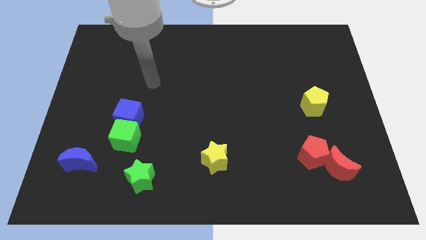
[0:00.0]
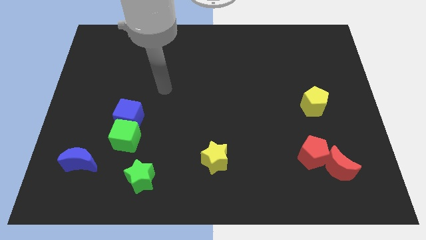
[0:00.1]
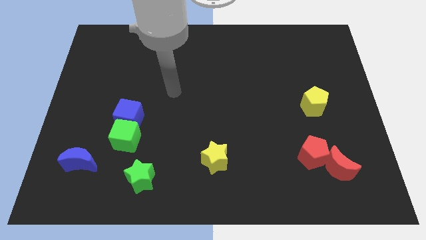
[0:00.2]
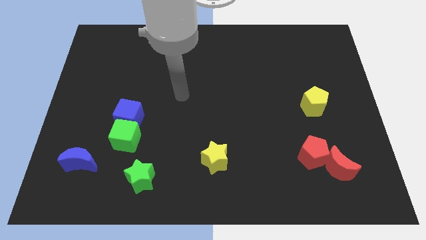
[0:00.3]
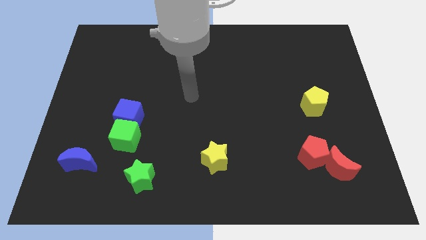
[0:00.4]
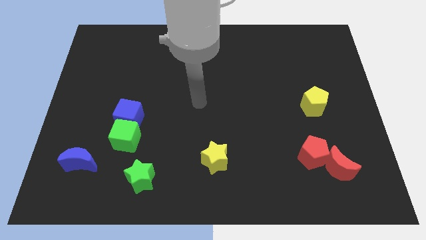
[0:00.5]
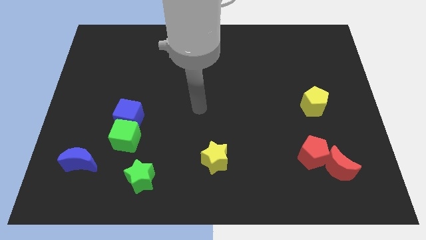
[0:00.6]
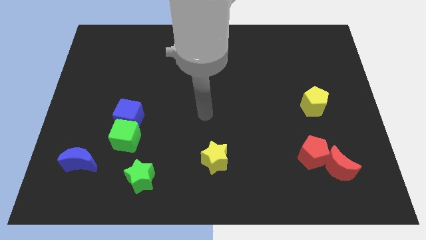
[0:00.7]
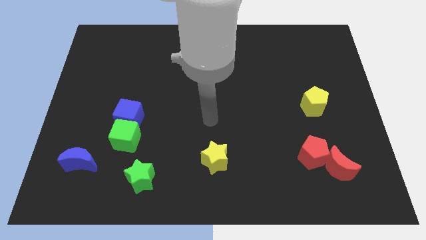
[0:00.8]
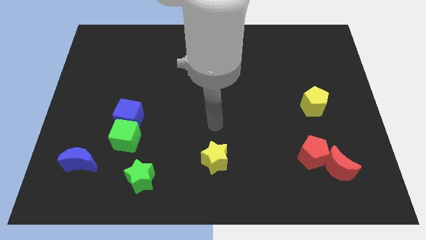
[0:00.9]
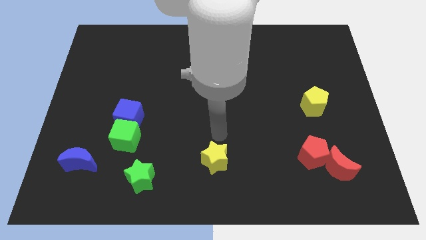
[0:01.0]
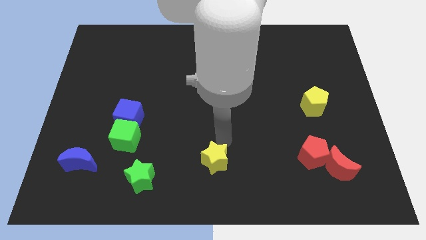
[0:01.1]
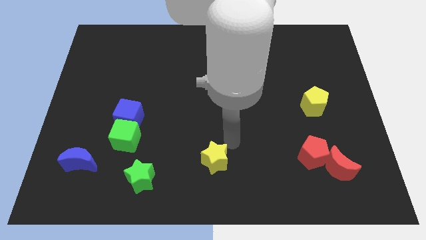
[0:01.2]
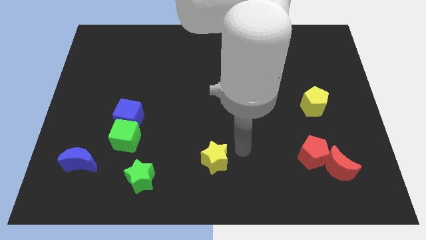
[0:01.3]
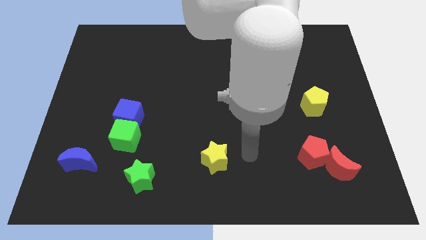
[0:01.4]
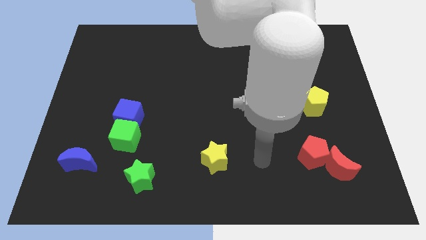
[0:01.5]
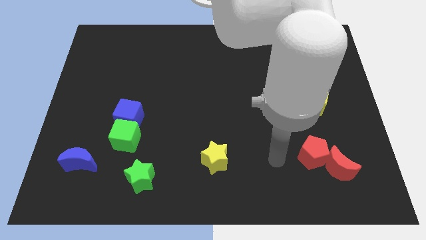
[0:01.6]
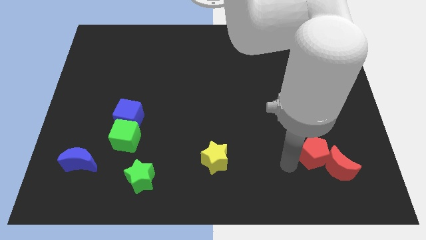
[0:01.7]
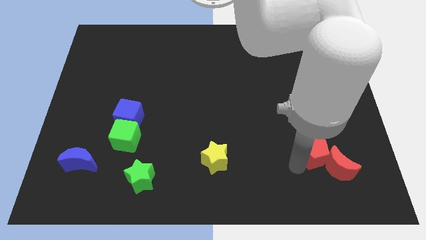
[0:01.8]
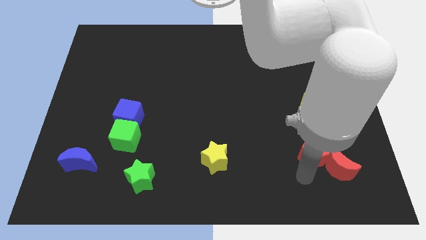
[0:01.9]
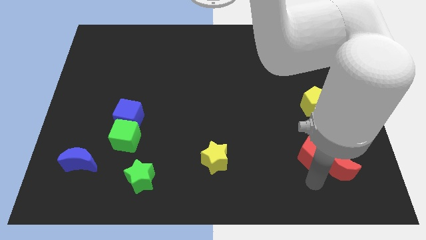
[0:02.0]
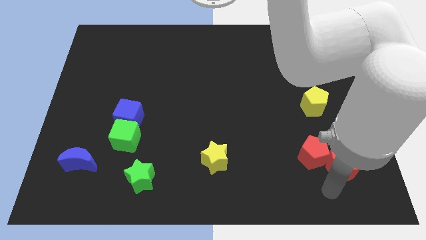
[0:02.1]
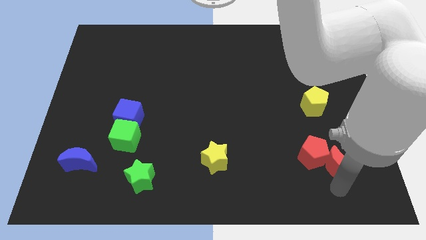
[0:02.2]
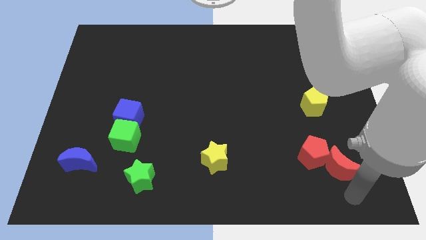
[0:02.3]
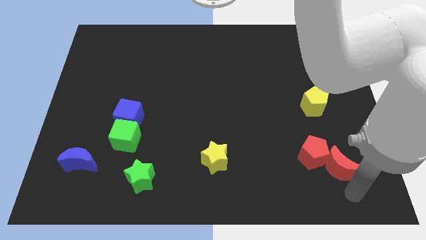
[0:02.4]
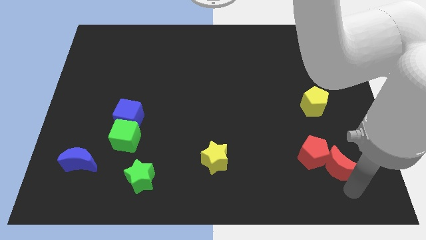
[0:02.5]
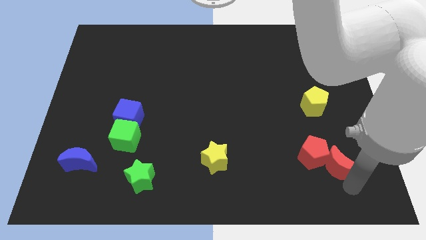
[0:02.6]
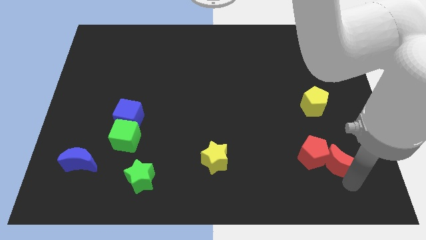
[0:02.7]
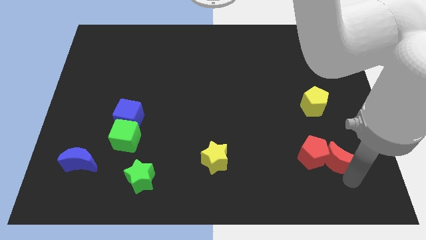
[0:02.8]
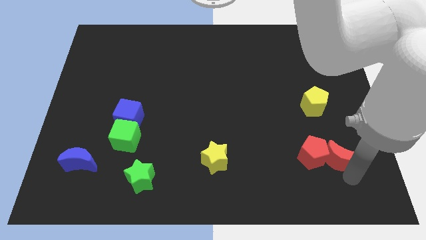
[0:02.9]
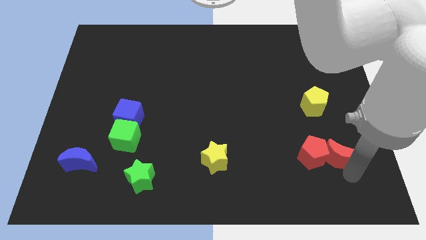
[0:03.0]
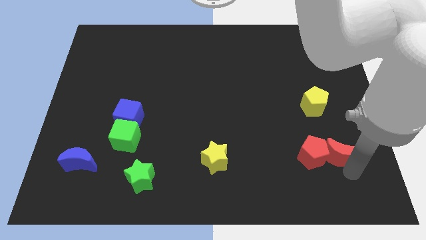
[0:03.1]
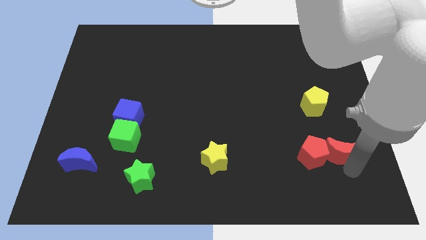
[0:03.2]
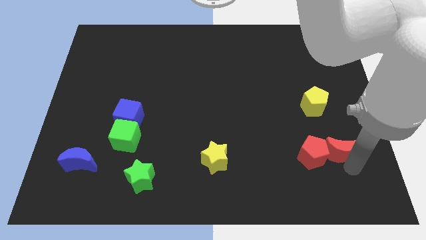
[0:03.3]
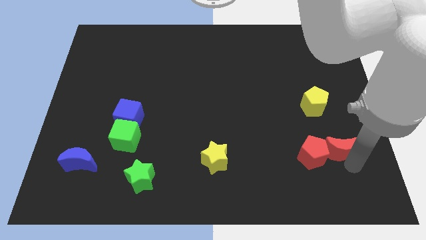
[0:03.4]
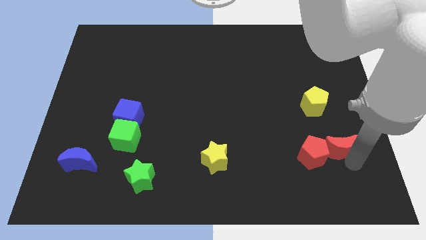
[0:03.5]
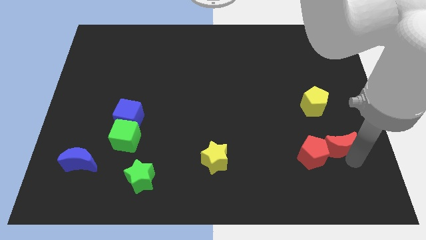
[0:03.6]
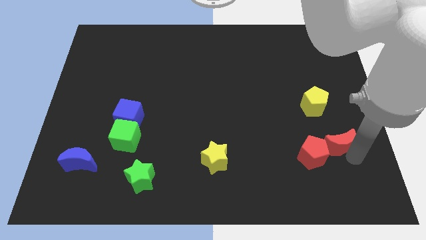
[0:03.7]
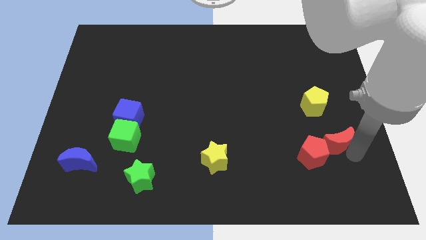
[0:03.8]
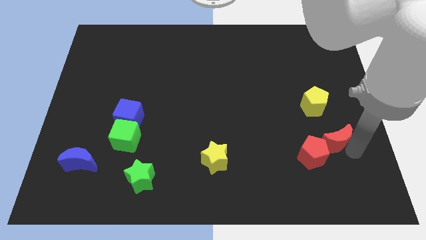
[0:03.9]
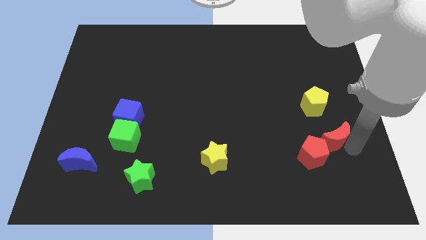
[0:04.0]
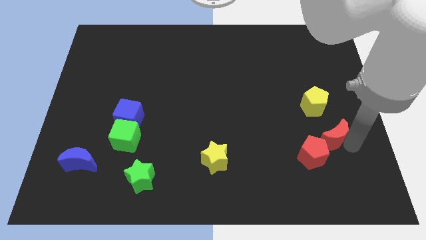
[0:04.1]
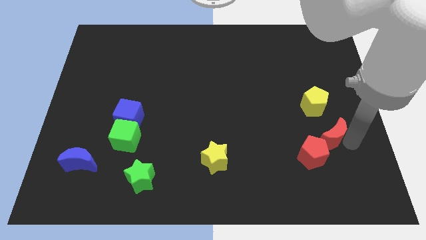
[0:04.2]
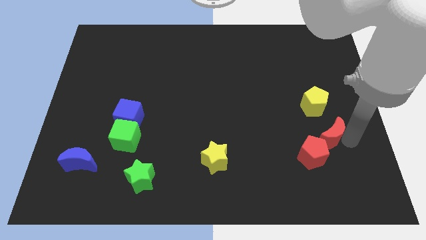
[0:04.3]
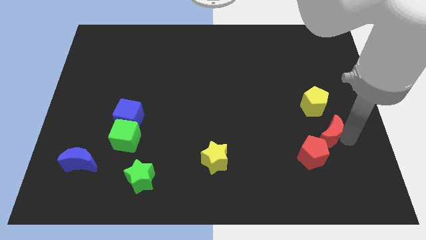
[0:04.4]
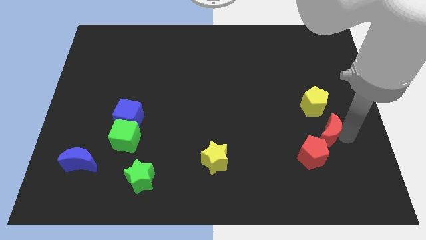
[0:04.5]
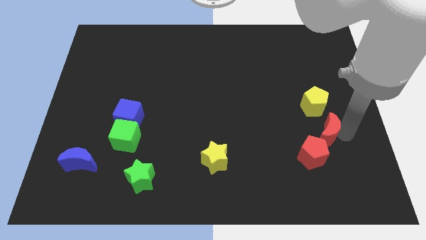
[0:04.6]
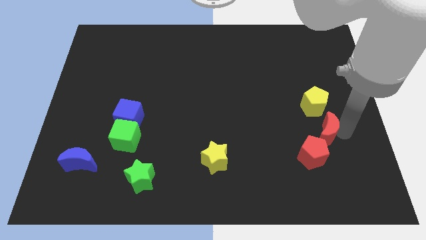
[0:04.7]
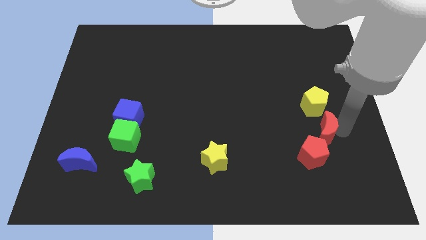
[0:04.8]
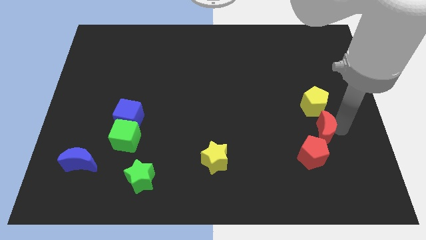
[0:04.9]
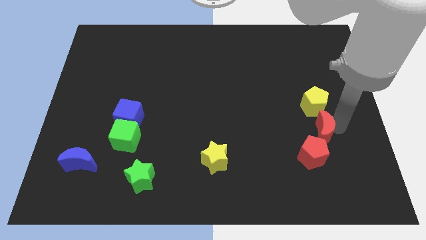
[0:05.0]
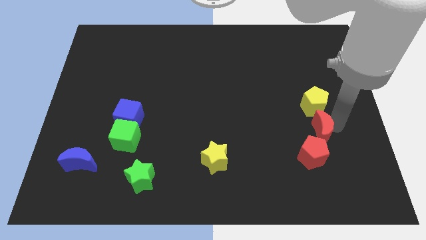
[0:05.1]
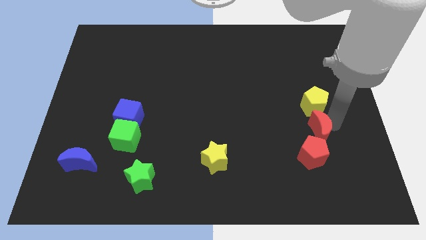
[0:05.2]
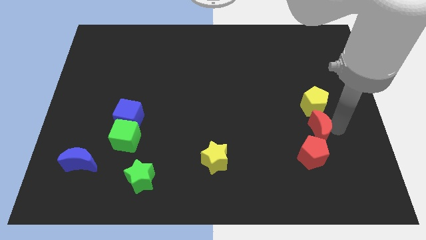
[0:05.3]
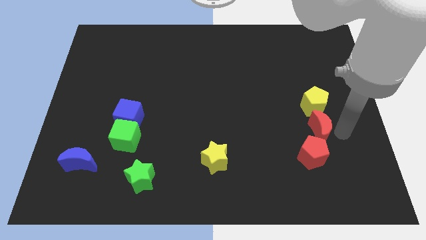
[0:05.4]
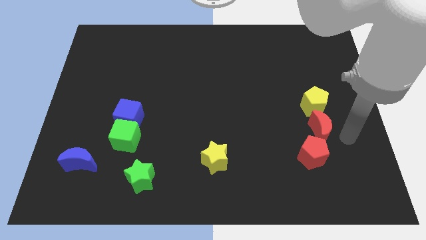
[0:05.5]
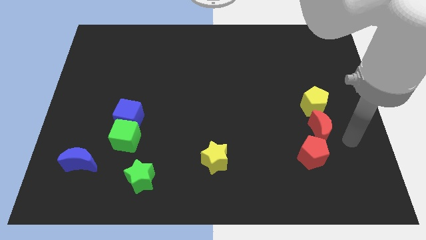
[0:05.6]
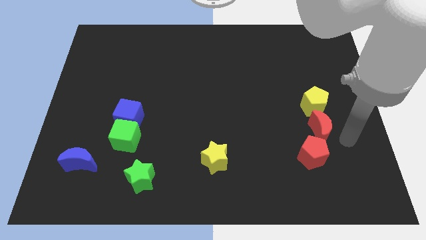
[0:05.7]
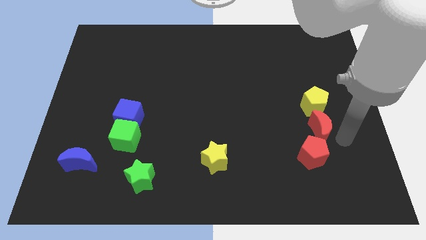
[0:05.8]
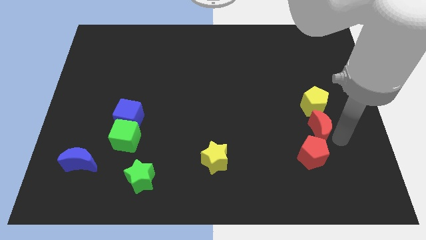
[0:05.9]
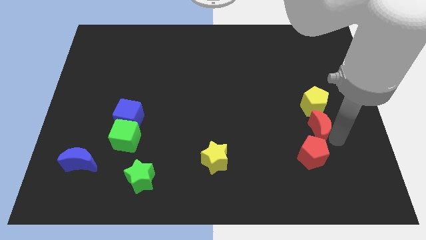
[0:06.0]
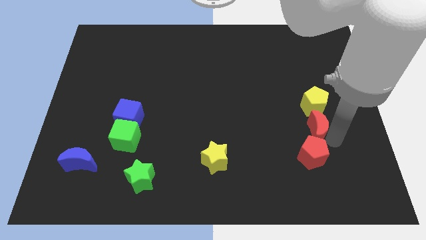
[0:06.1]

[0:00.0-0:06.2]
move the red moon diagonally down and to the left of the yellow pentagon
